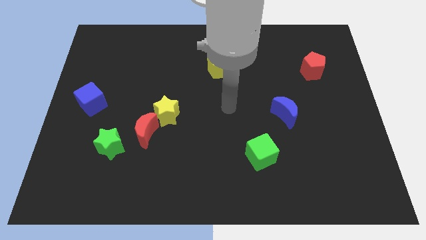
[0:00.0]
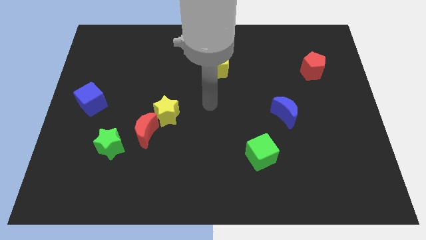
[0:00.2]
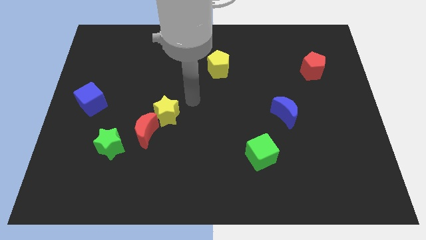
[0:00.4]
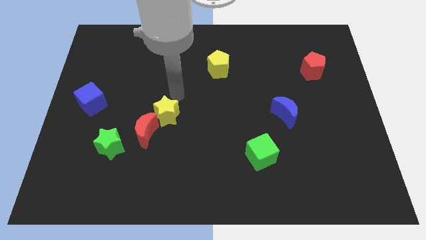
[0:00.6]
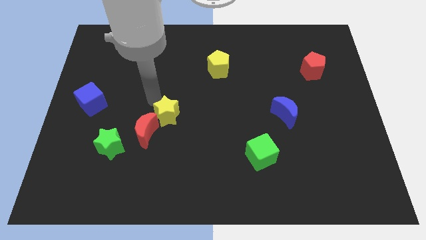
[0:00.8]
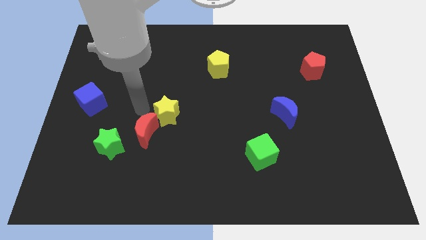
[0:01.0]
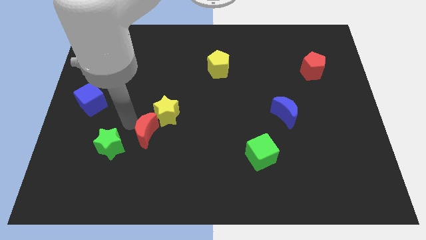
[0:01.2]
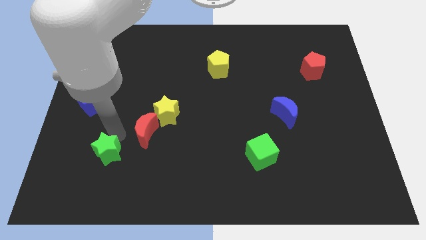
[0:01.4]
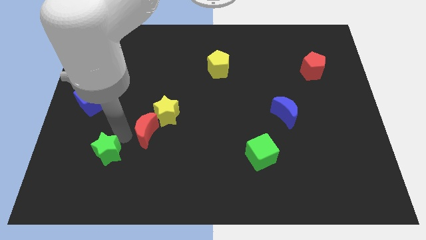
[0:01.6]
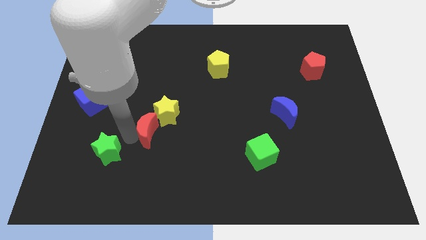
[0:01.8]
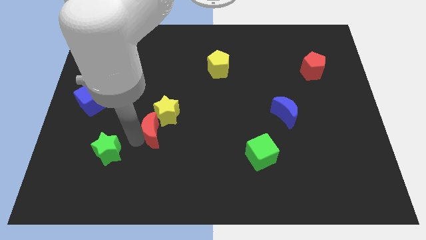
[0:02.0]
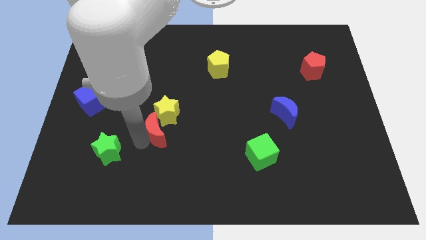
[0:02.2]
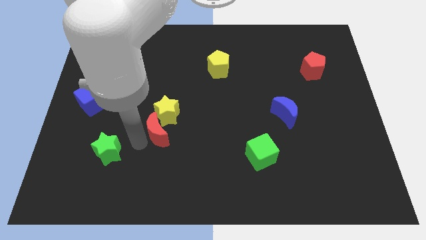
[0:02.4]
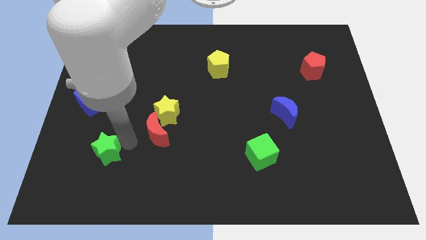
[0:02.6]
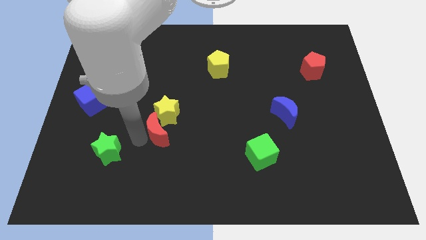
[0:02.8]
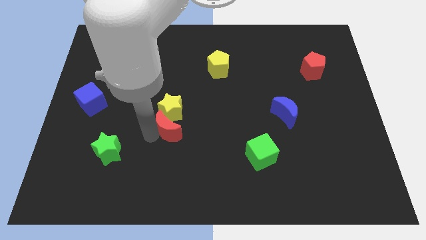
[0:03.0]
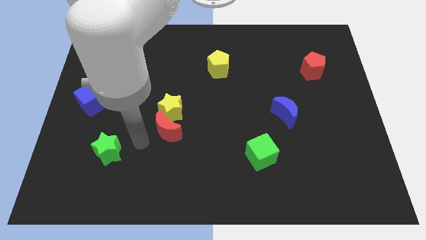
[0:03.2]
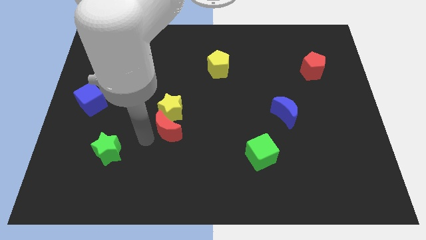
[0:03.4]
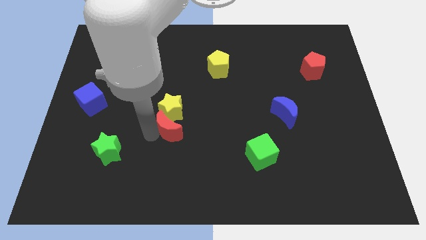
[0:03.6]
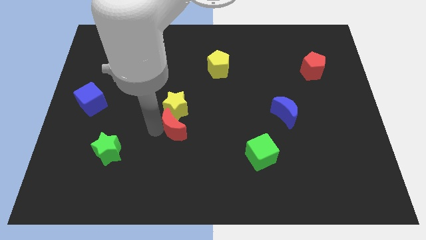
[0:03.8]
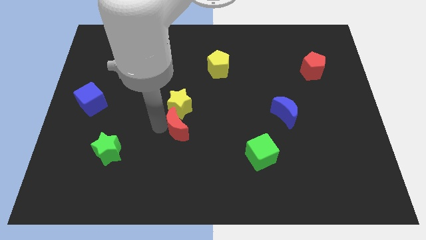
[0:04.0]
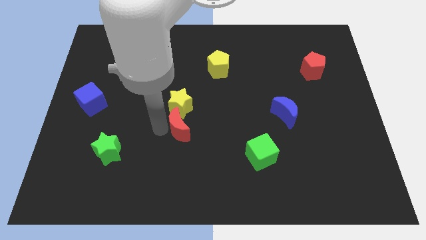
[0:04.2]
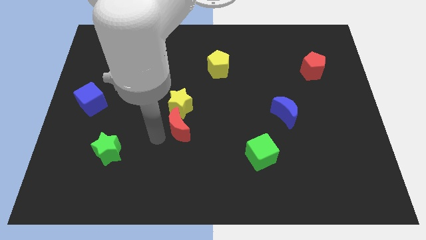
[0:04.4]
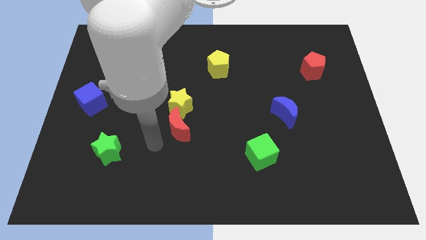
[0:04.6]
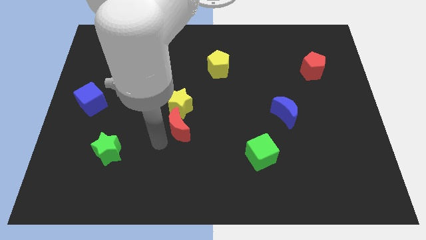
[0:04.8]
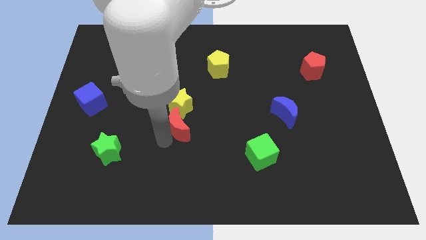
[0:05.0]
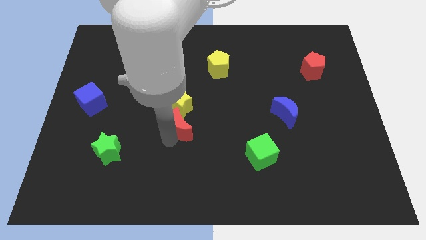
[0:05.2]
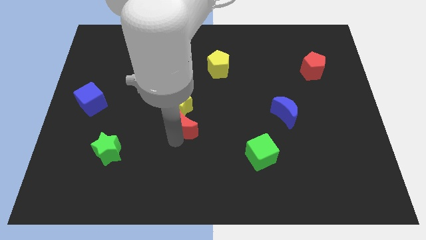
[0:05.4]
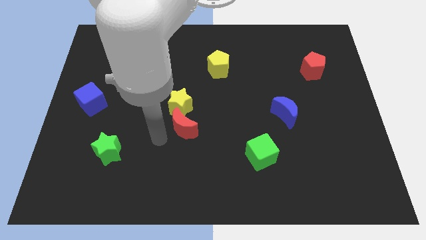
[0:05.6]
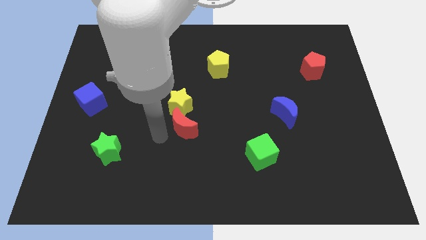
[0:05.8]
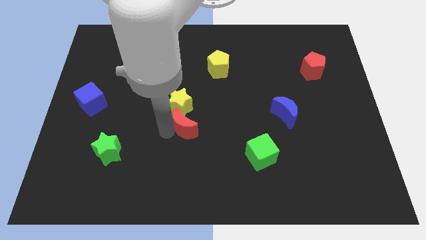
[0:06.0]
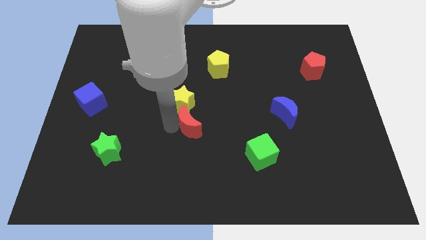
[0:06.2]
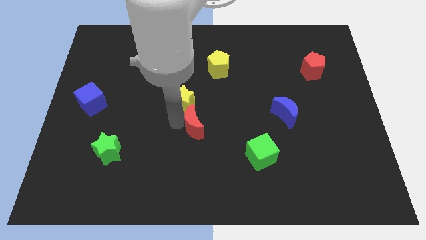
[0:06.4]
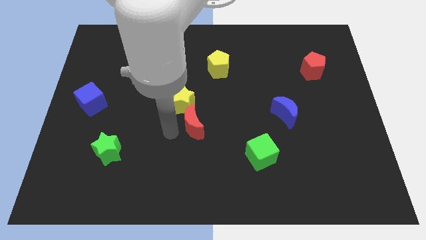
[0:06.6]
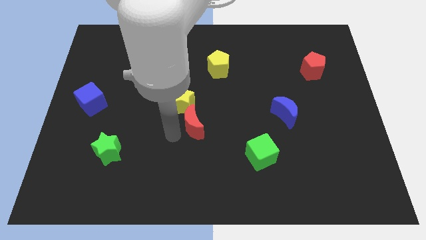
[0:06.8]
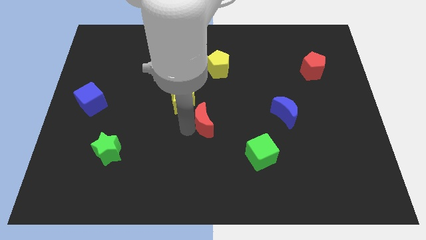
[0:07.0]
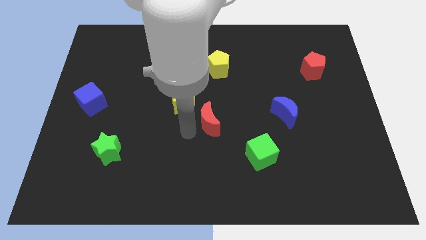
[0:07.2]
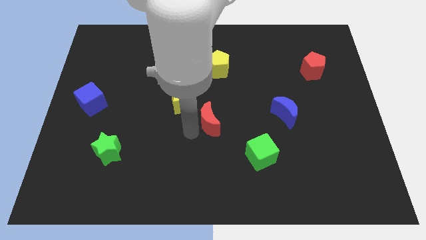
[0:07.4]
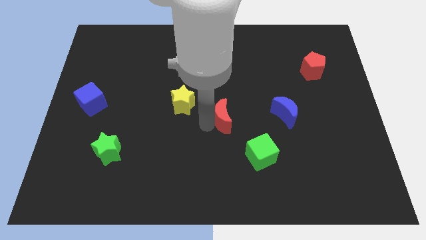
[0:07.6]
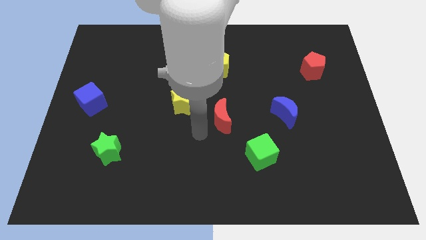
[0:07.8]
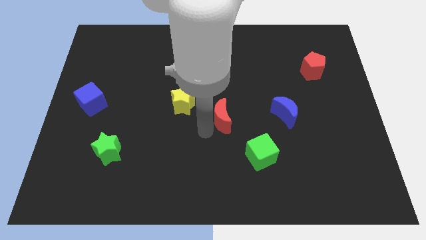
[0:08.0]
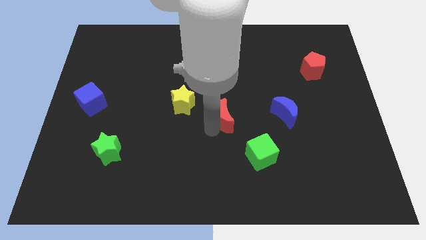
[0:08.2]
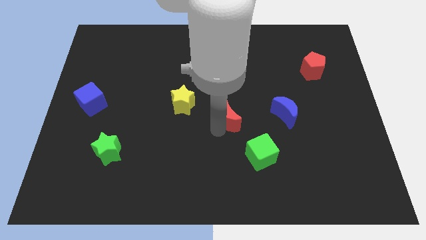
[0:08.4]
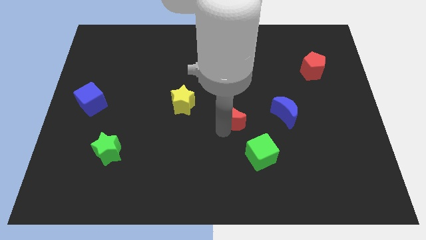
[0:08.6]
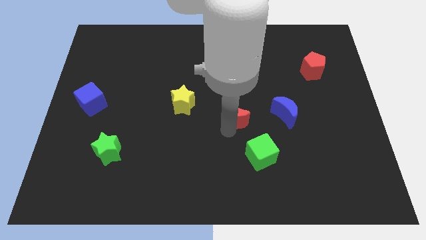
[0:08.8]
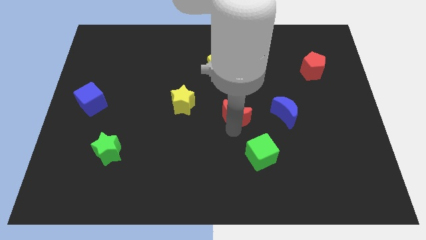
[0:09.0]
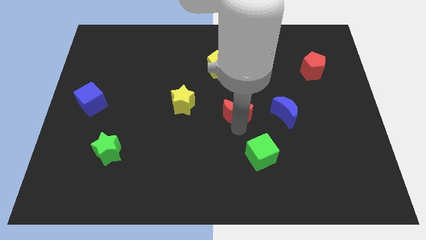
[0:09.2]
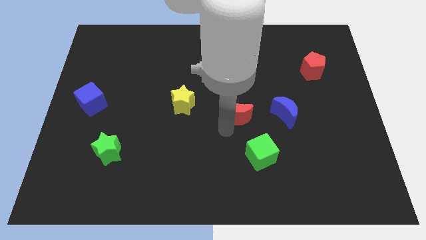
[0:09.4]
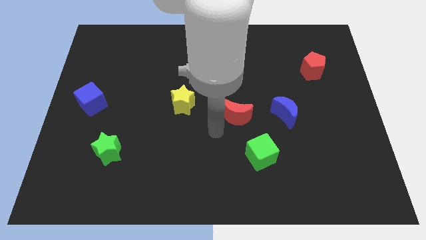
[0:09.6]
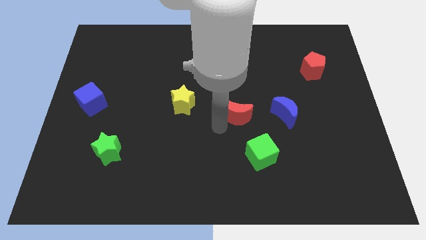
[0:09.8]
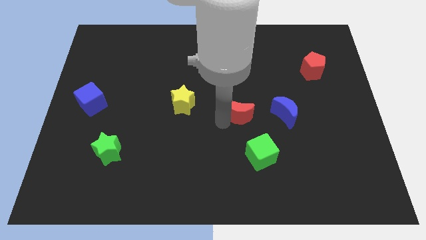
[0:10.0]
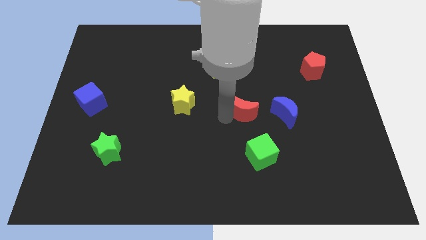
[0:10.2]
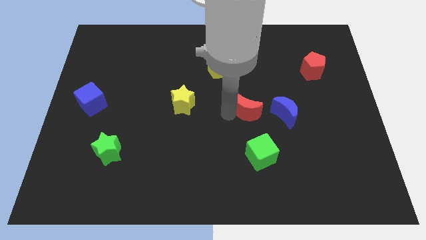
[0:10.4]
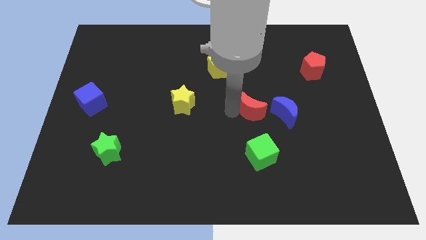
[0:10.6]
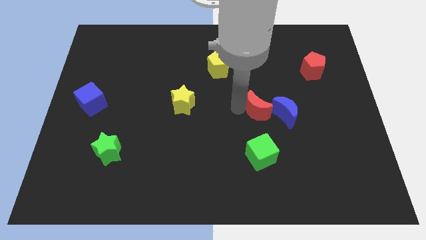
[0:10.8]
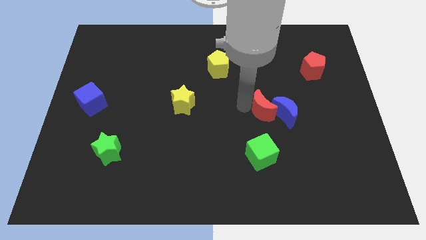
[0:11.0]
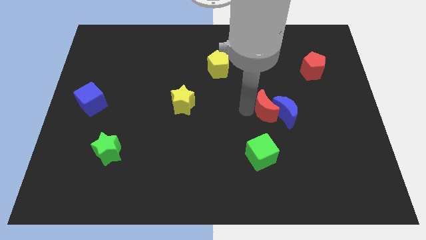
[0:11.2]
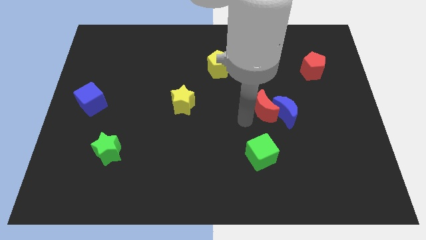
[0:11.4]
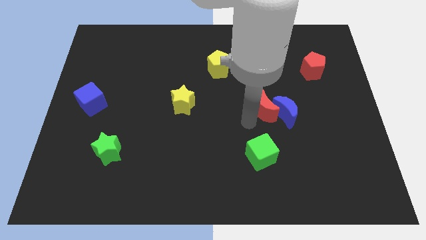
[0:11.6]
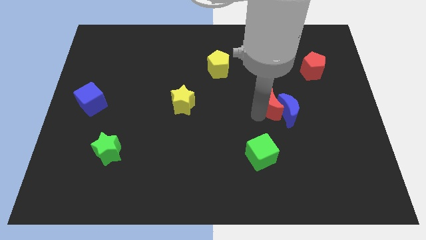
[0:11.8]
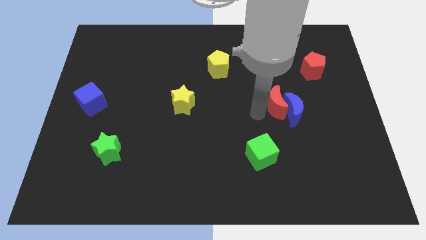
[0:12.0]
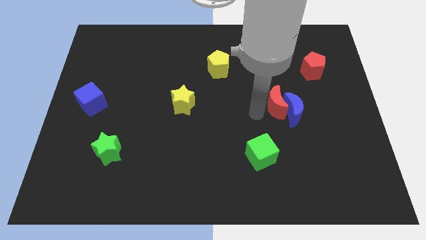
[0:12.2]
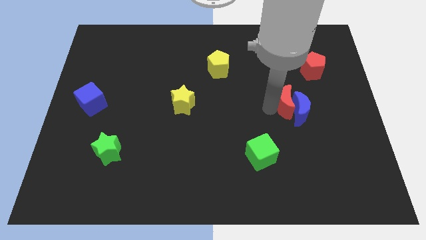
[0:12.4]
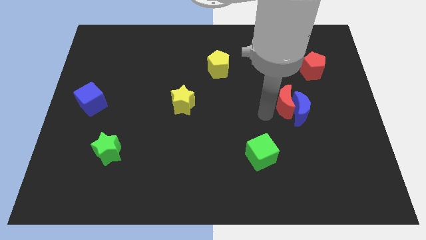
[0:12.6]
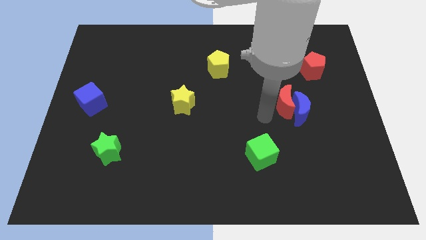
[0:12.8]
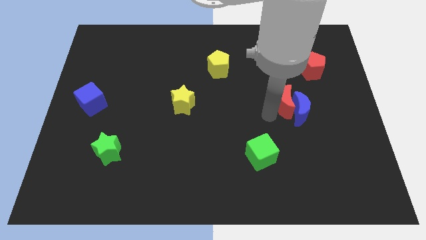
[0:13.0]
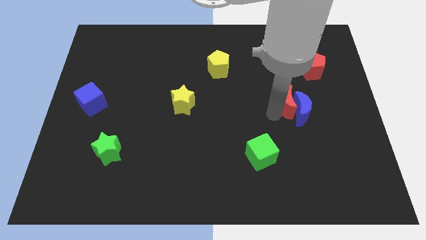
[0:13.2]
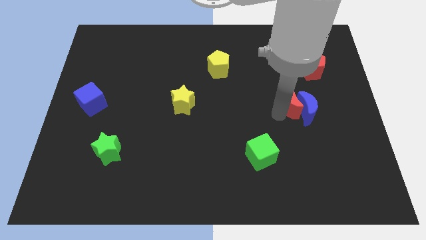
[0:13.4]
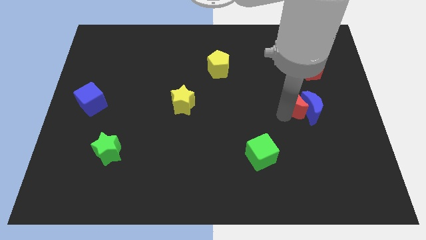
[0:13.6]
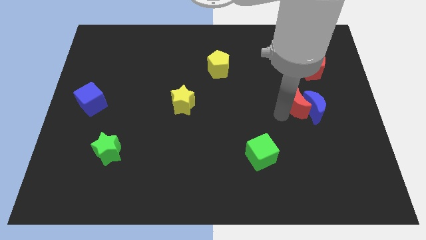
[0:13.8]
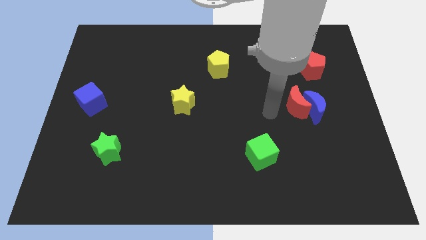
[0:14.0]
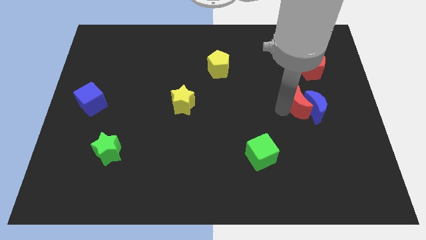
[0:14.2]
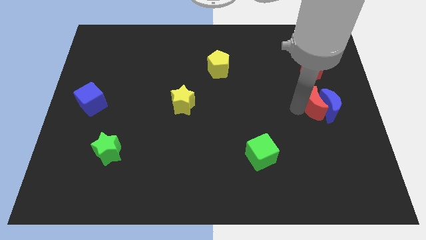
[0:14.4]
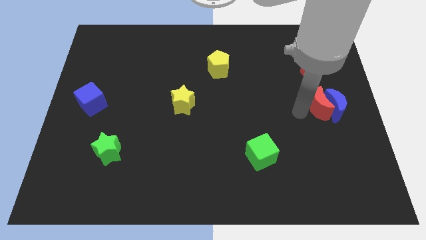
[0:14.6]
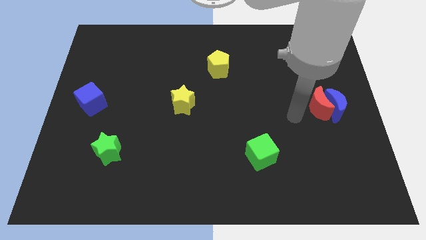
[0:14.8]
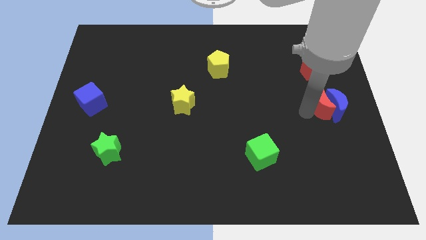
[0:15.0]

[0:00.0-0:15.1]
push the red moon to the right side

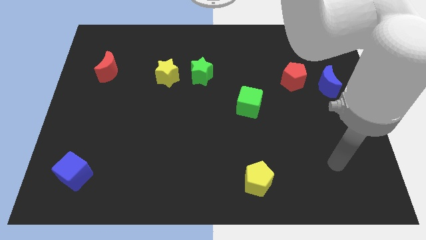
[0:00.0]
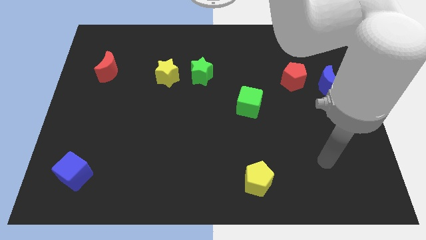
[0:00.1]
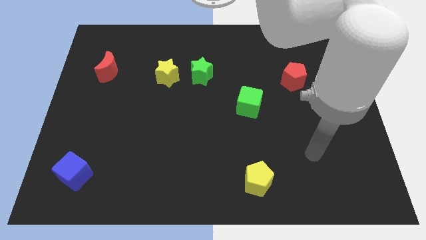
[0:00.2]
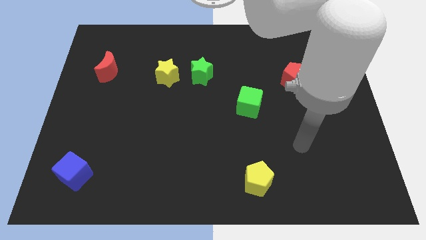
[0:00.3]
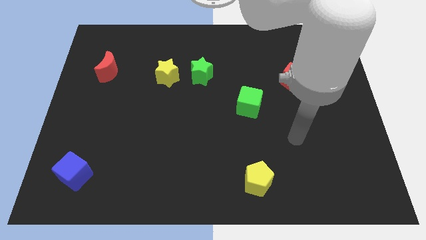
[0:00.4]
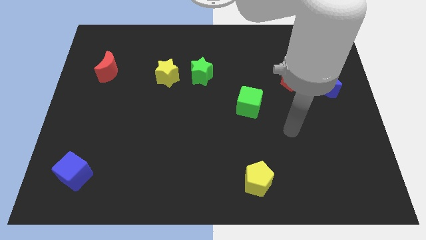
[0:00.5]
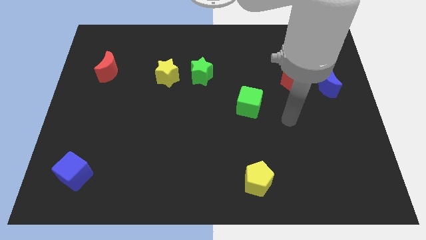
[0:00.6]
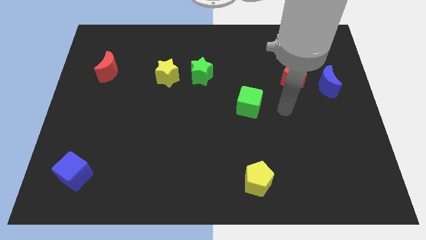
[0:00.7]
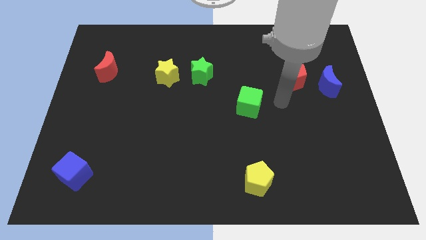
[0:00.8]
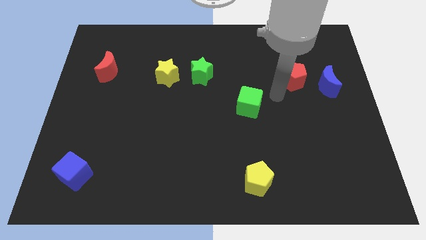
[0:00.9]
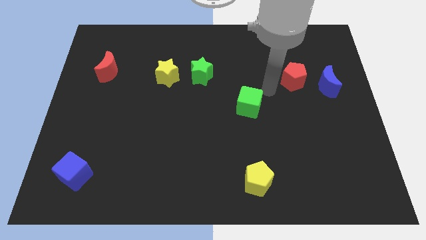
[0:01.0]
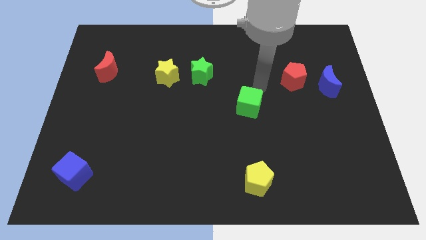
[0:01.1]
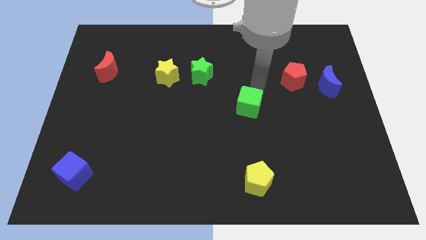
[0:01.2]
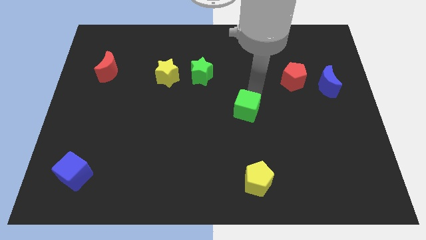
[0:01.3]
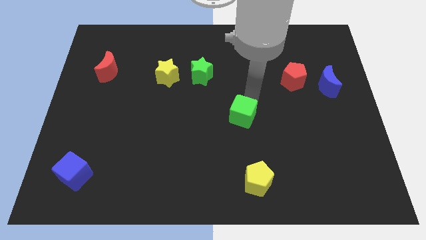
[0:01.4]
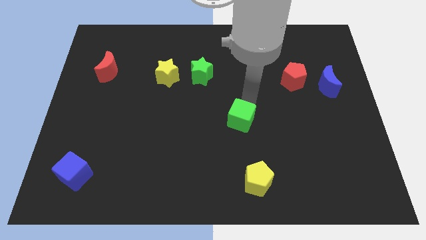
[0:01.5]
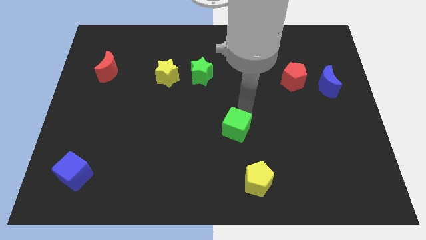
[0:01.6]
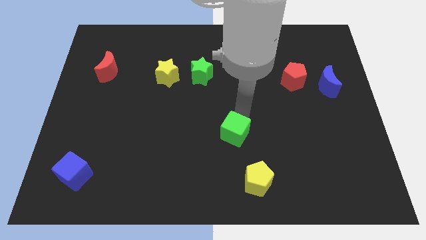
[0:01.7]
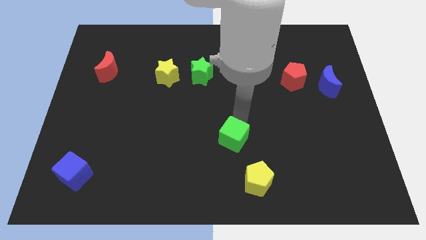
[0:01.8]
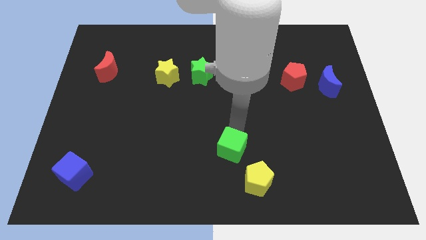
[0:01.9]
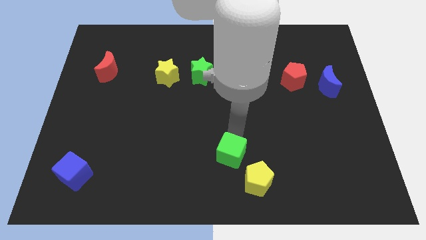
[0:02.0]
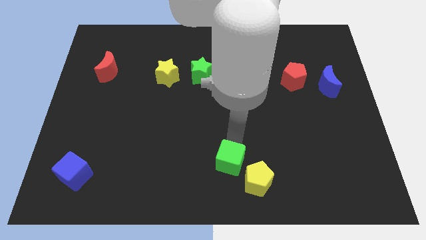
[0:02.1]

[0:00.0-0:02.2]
move the green cube to the bottom side
